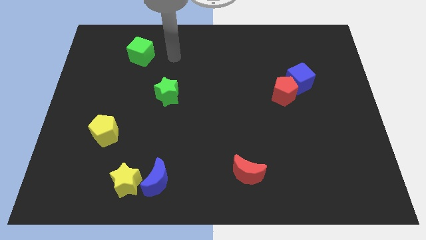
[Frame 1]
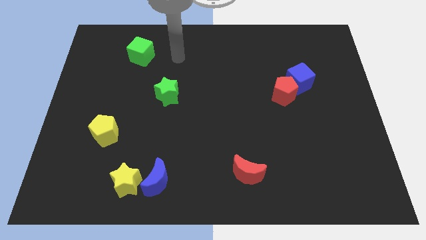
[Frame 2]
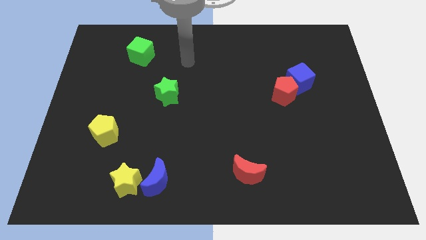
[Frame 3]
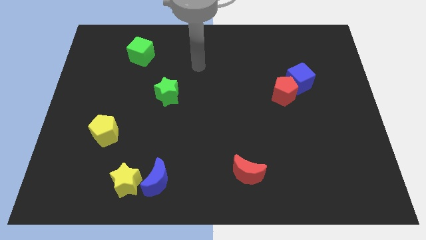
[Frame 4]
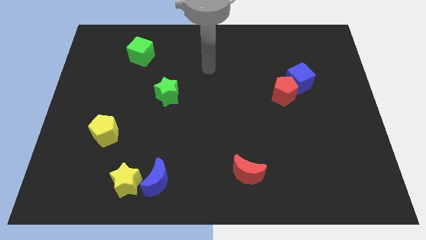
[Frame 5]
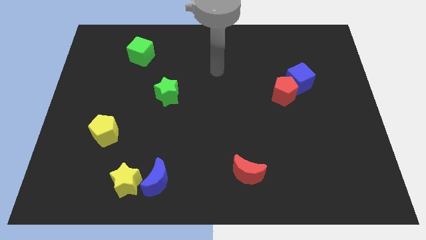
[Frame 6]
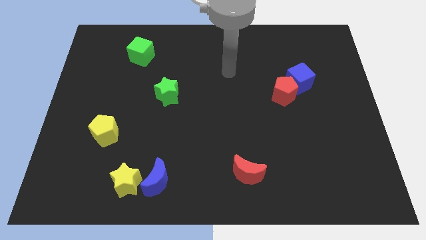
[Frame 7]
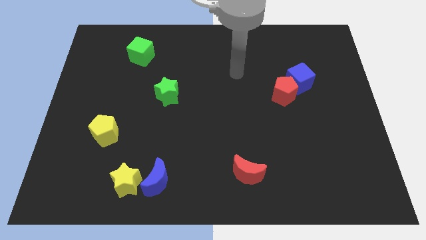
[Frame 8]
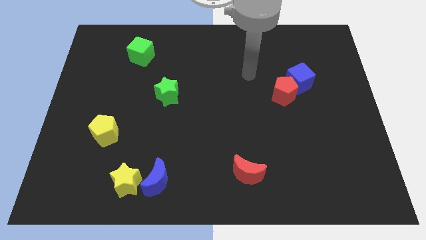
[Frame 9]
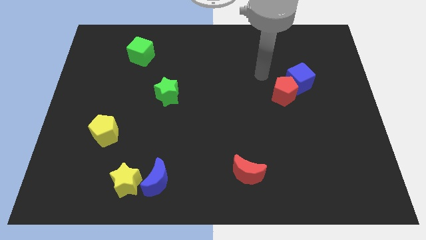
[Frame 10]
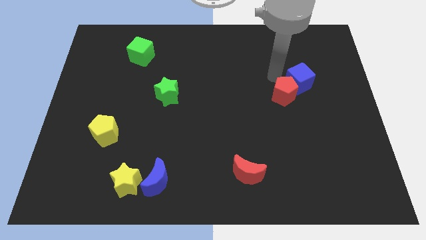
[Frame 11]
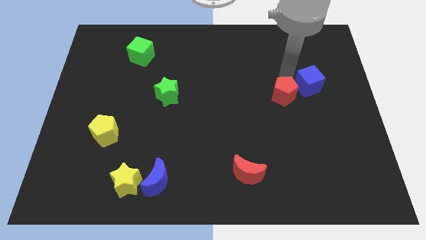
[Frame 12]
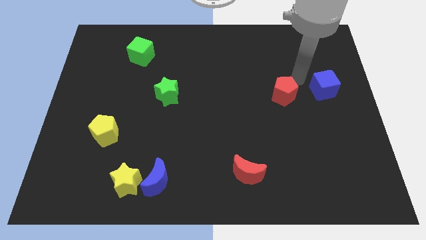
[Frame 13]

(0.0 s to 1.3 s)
move the red pentagon away from the blue cube

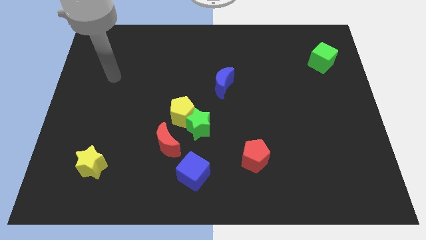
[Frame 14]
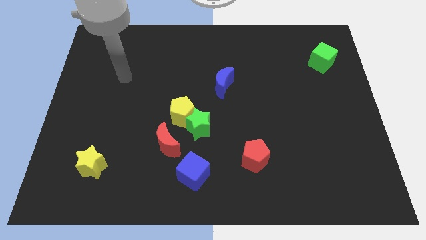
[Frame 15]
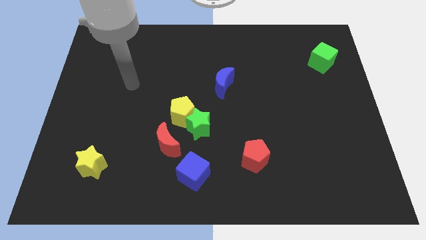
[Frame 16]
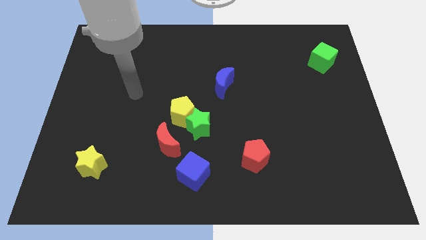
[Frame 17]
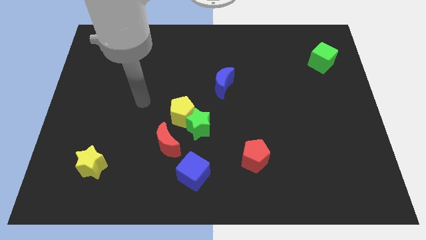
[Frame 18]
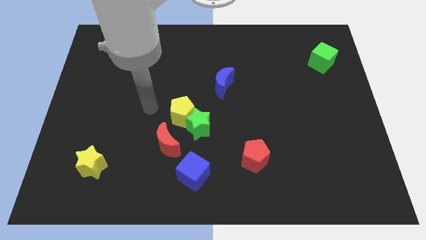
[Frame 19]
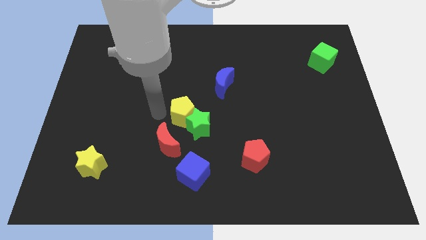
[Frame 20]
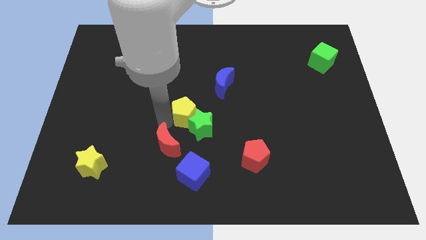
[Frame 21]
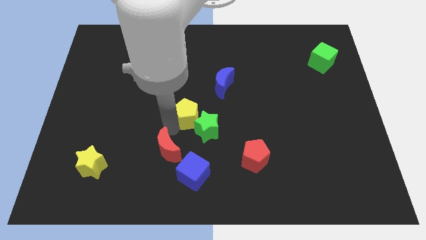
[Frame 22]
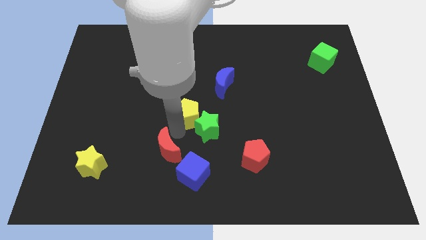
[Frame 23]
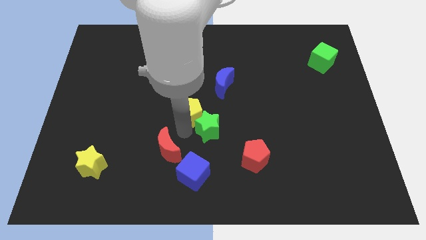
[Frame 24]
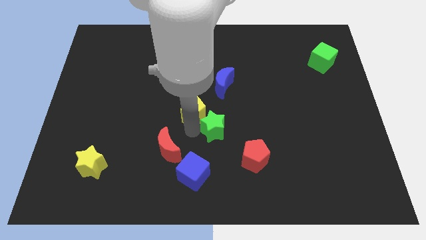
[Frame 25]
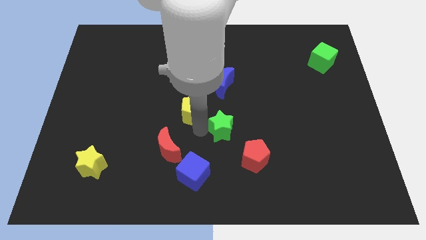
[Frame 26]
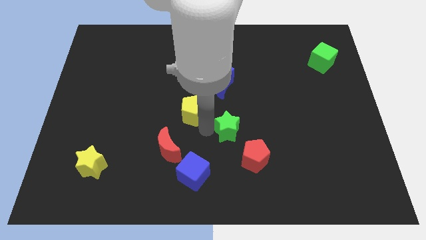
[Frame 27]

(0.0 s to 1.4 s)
pull the green star apart from the yellow pentagon and red moon

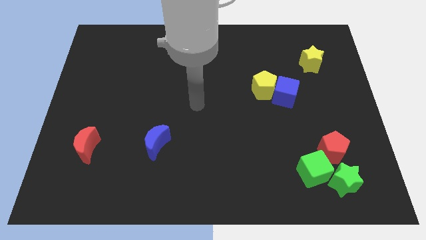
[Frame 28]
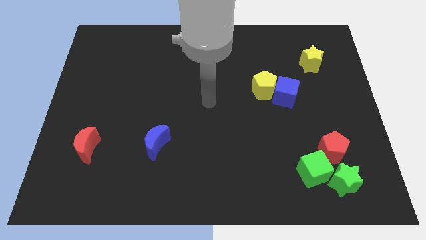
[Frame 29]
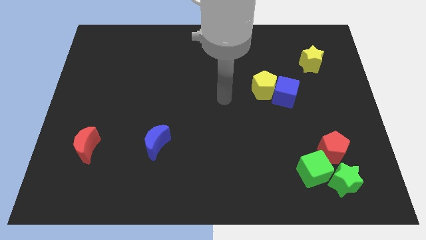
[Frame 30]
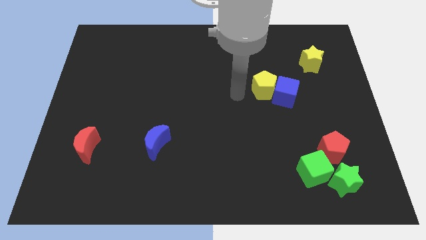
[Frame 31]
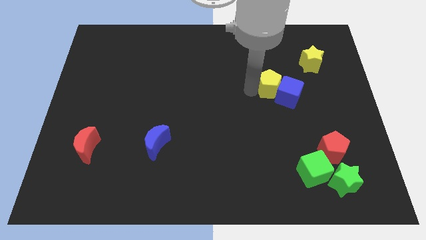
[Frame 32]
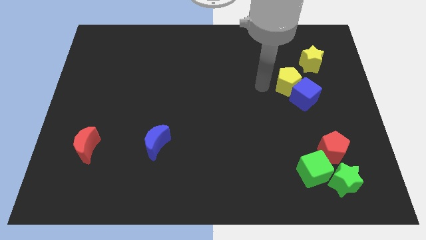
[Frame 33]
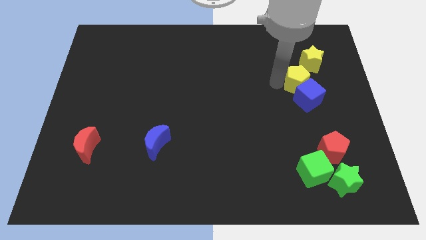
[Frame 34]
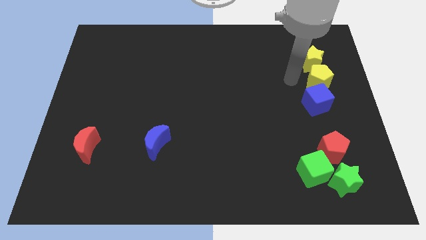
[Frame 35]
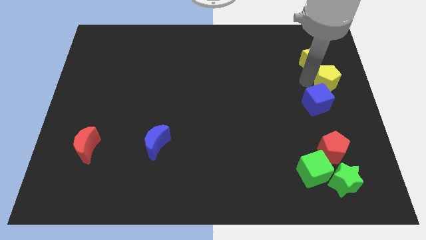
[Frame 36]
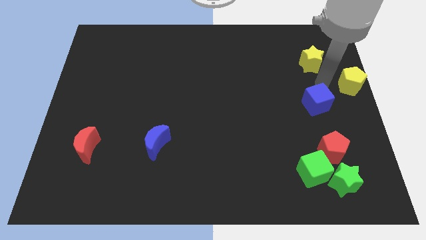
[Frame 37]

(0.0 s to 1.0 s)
pull the blue cube apart from the yellow pentagon

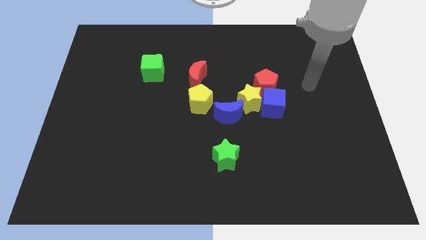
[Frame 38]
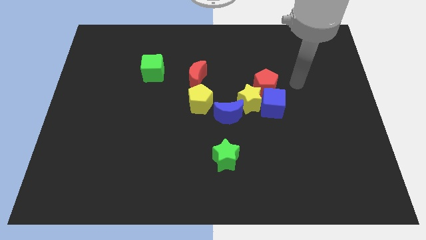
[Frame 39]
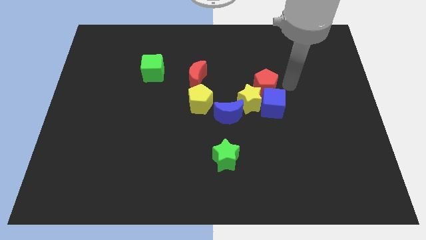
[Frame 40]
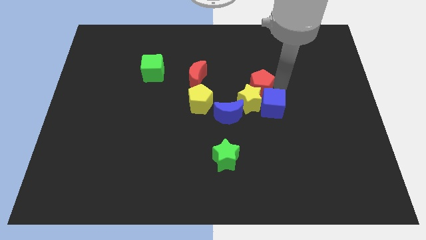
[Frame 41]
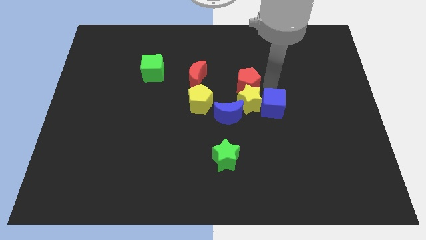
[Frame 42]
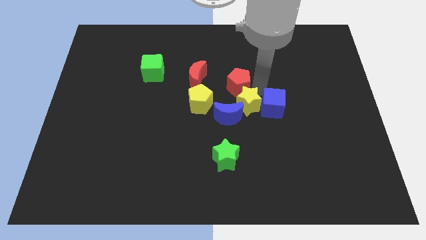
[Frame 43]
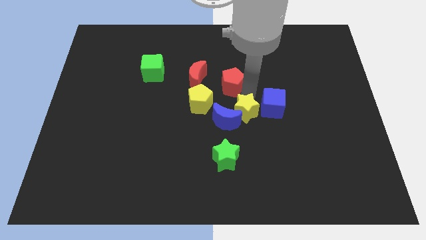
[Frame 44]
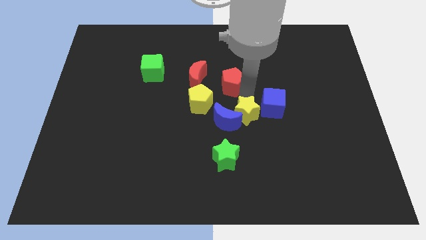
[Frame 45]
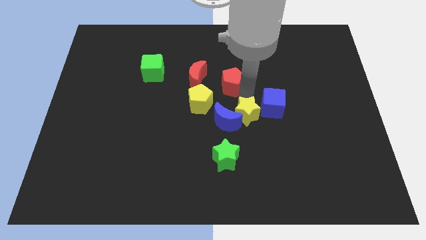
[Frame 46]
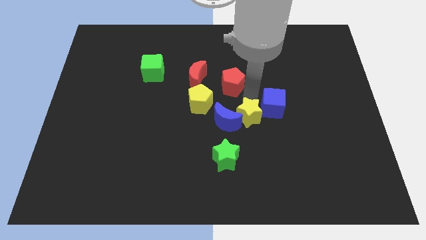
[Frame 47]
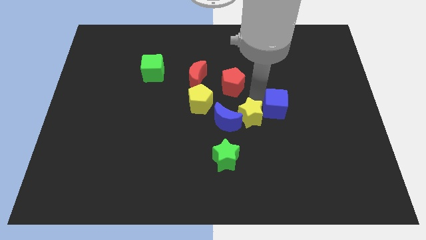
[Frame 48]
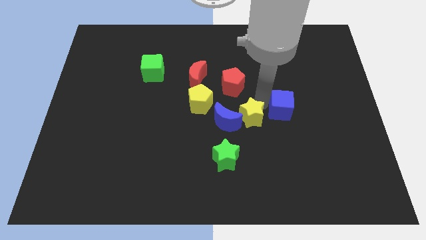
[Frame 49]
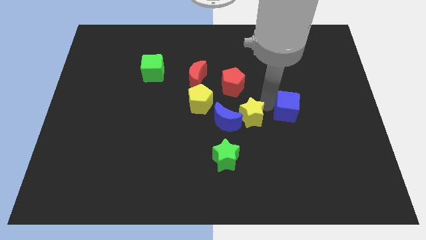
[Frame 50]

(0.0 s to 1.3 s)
pull the blue cube apart from the yellow star and red pentagon

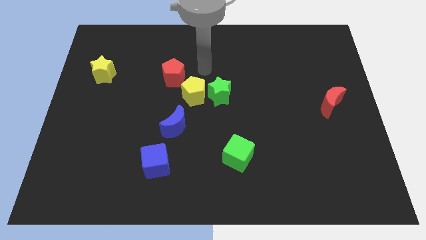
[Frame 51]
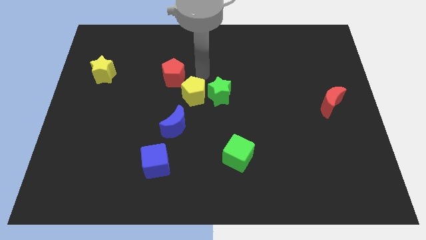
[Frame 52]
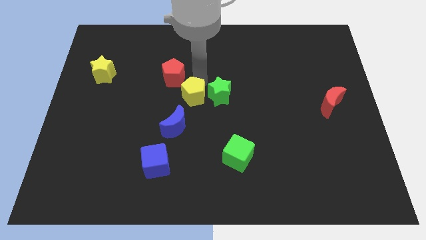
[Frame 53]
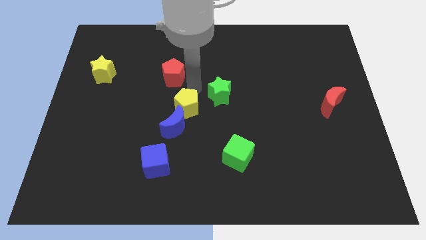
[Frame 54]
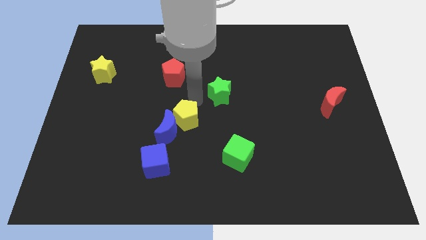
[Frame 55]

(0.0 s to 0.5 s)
separate the green star from the yellow pentagon

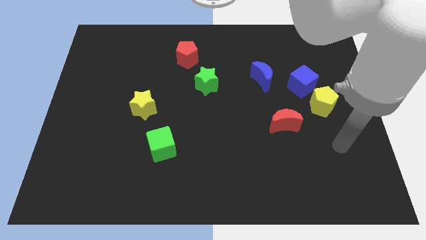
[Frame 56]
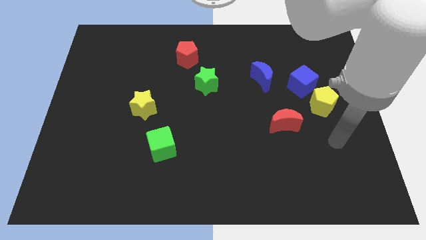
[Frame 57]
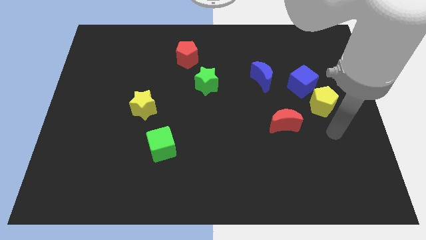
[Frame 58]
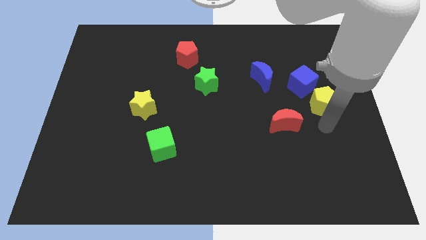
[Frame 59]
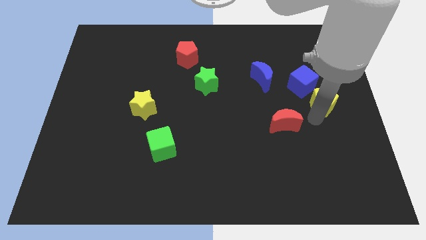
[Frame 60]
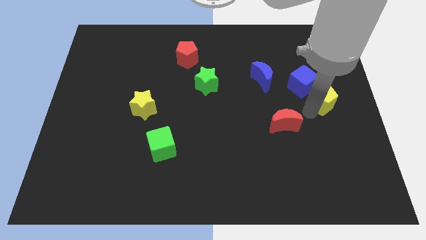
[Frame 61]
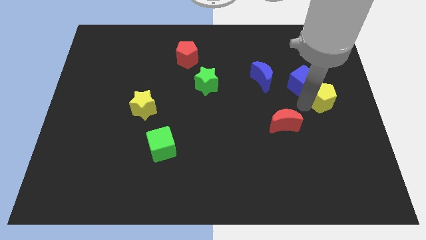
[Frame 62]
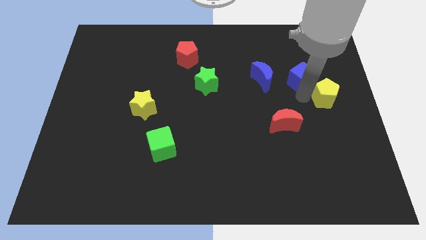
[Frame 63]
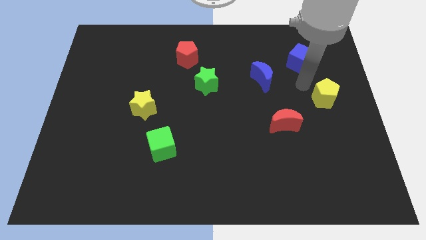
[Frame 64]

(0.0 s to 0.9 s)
separate the yellow pentagon from the blue cube

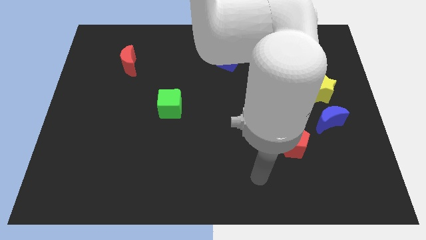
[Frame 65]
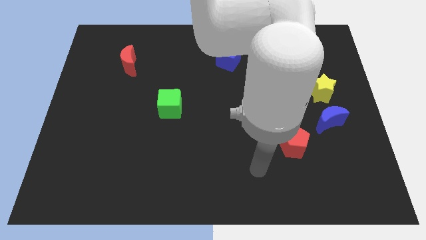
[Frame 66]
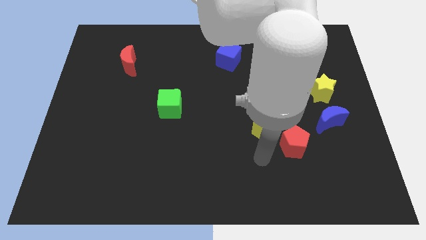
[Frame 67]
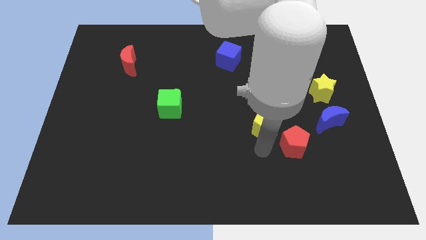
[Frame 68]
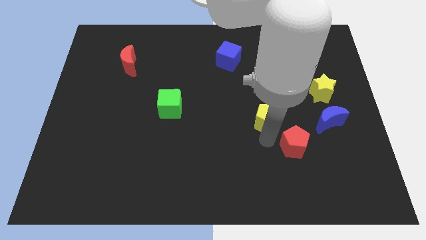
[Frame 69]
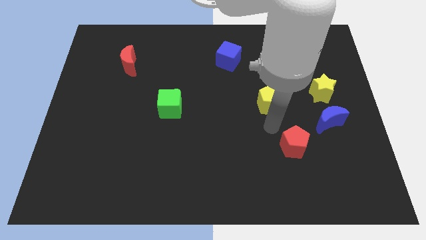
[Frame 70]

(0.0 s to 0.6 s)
move the red pentagon away from the yellow pentagon

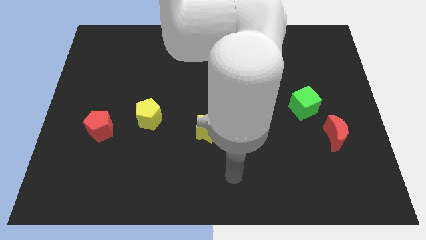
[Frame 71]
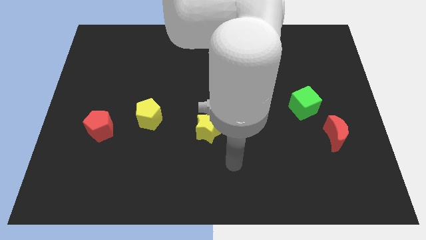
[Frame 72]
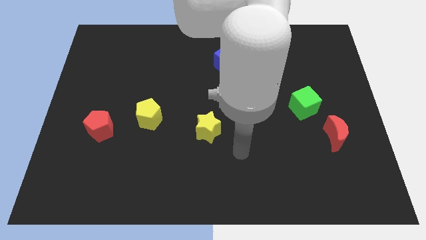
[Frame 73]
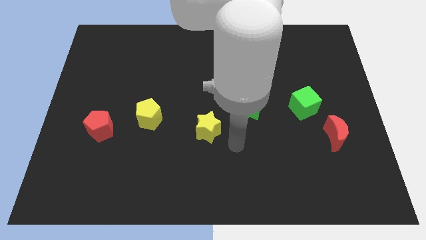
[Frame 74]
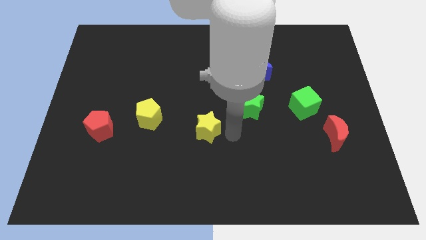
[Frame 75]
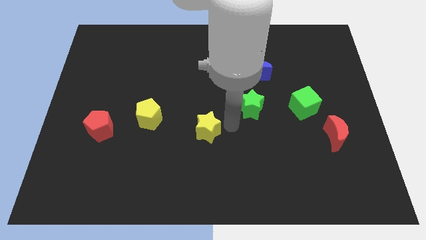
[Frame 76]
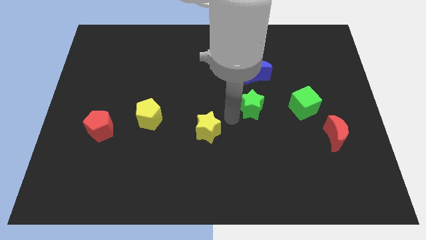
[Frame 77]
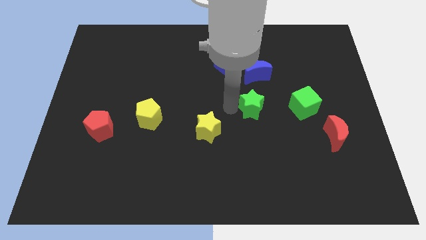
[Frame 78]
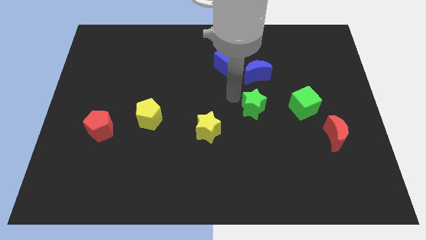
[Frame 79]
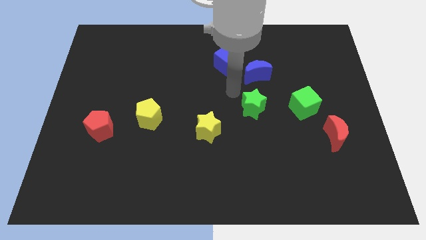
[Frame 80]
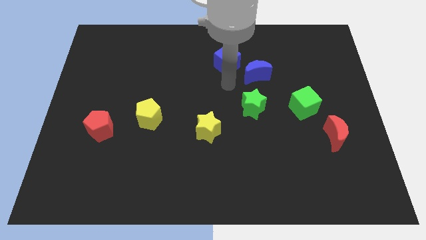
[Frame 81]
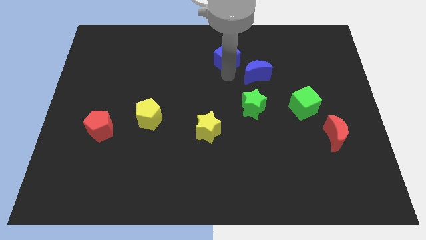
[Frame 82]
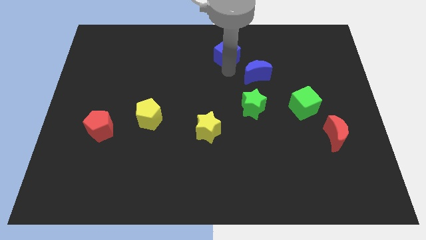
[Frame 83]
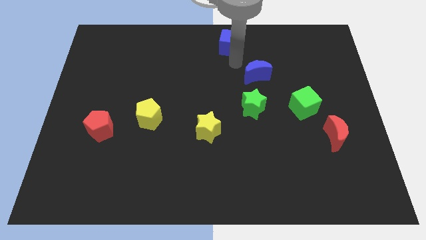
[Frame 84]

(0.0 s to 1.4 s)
move the blue moon away from the blue cube

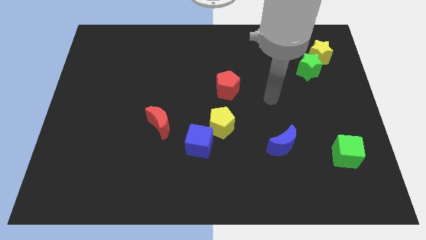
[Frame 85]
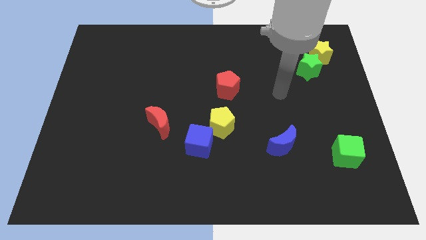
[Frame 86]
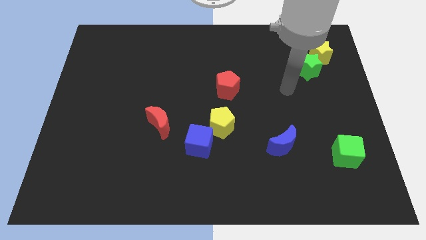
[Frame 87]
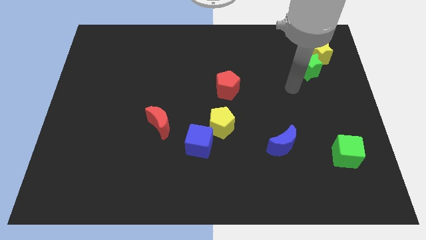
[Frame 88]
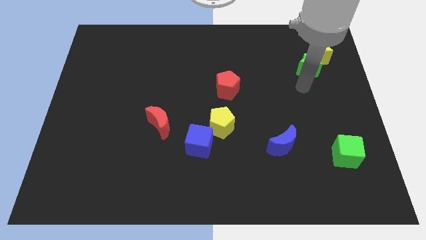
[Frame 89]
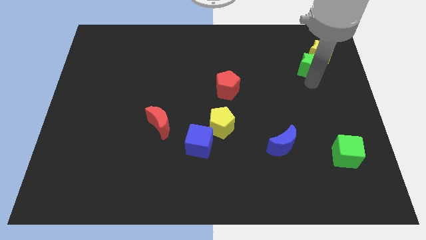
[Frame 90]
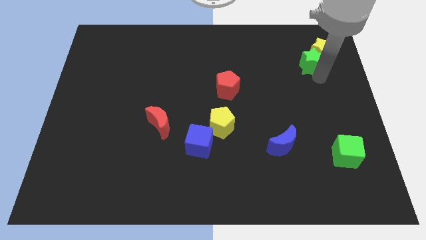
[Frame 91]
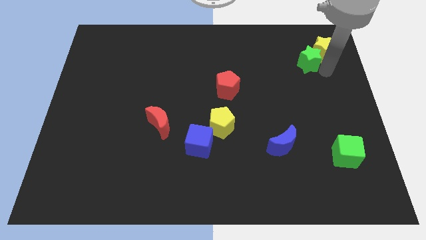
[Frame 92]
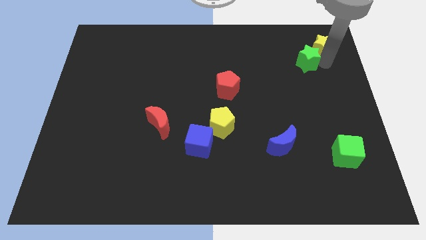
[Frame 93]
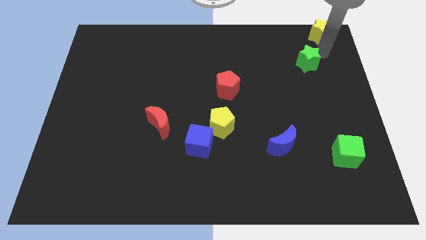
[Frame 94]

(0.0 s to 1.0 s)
separate the green star from the yellow star
